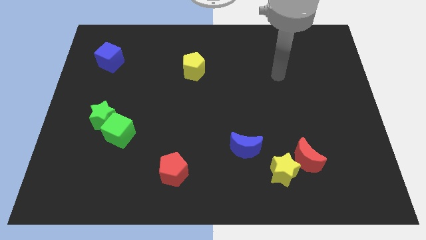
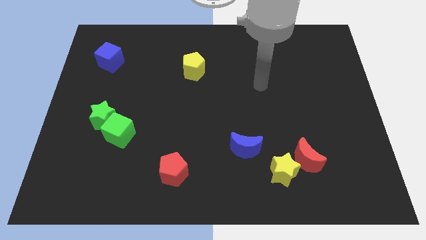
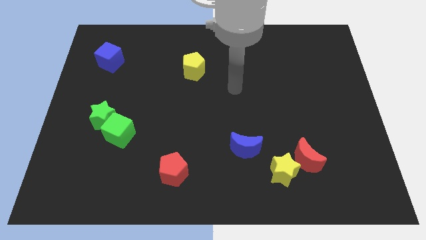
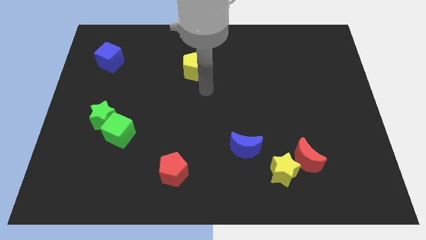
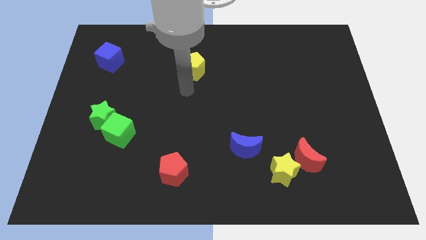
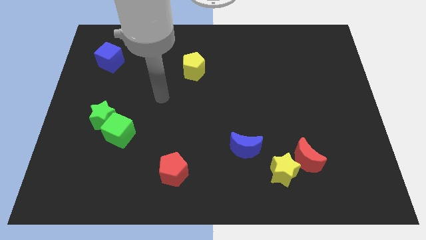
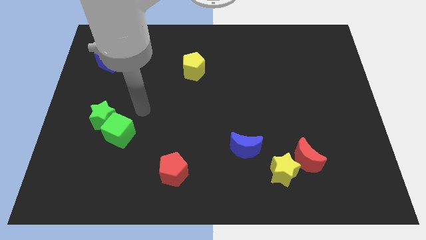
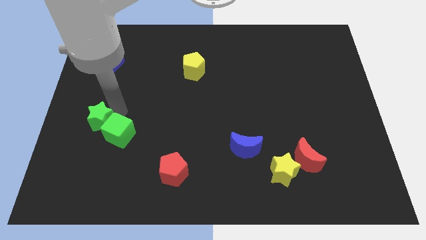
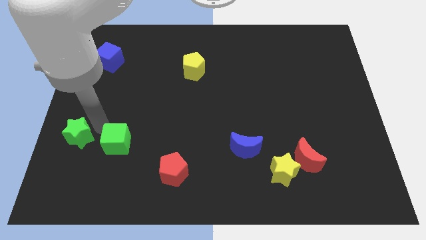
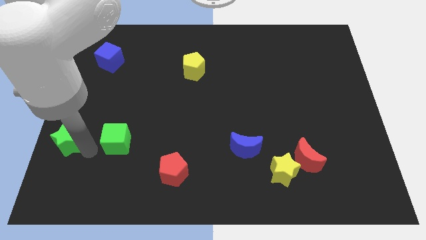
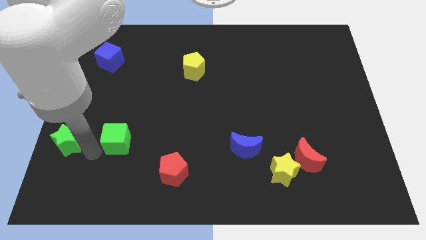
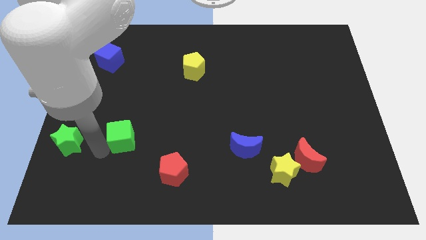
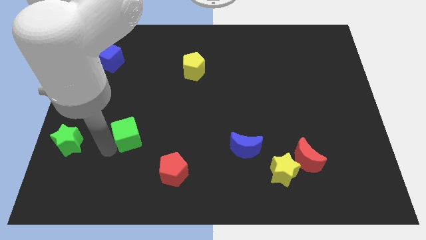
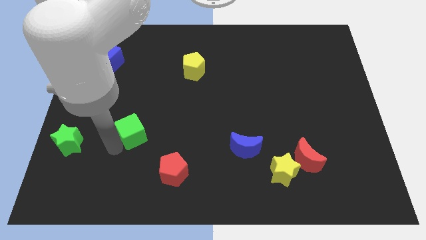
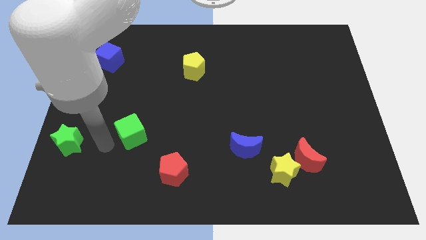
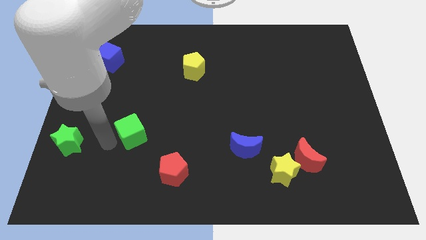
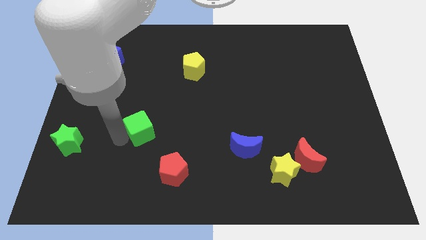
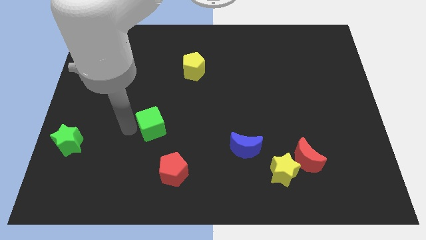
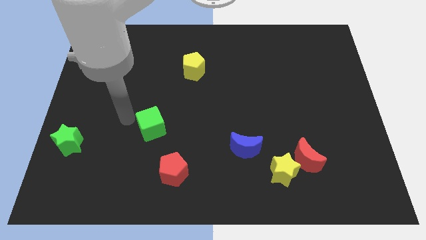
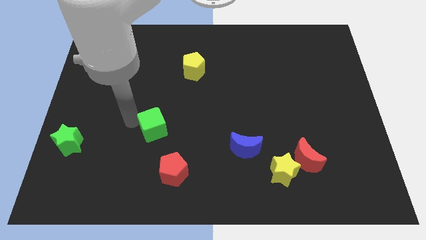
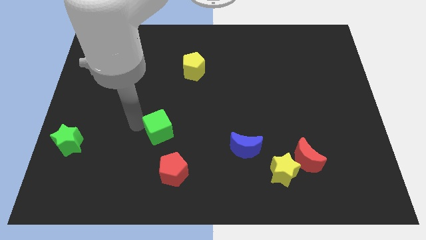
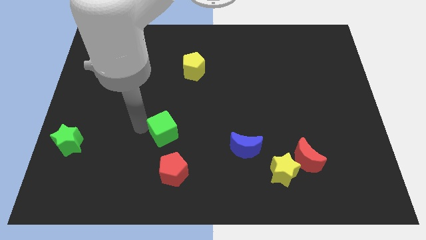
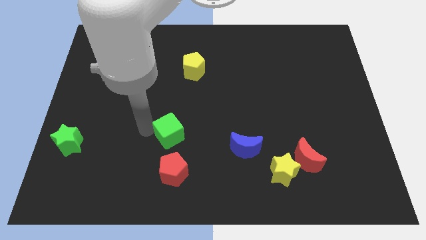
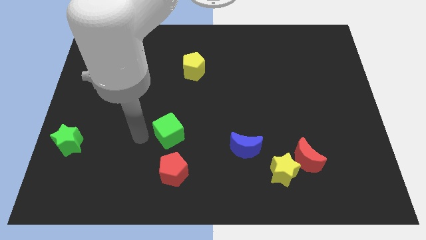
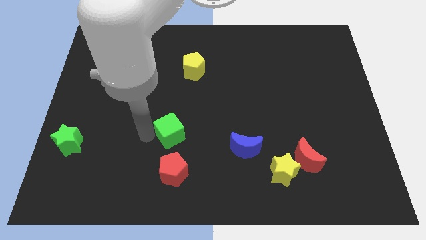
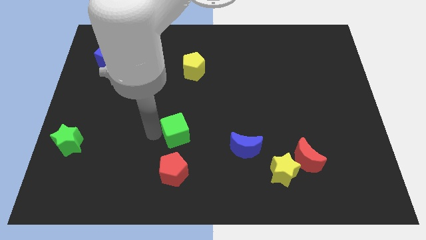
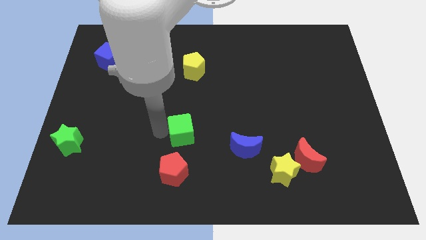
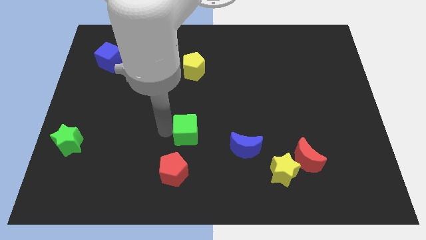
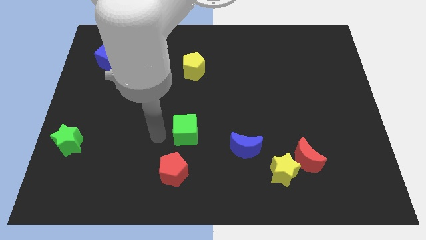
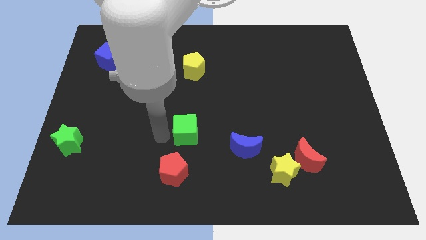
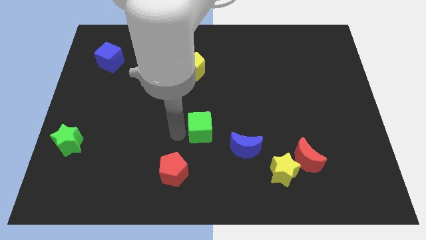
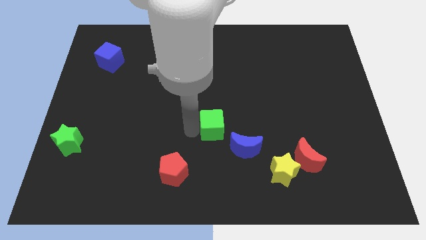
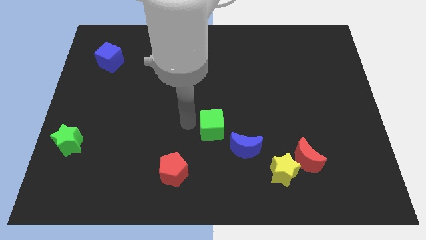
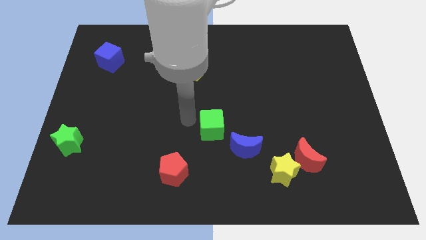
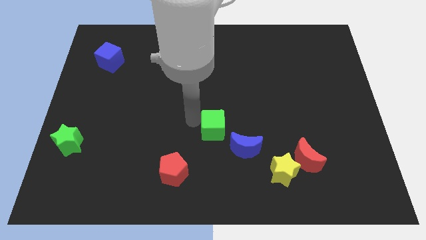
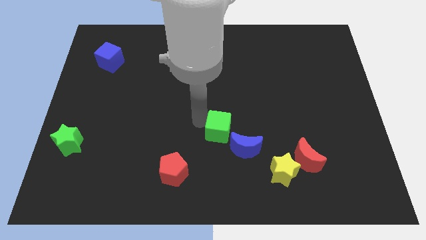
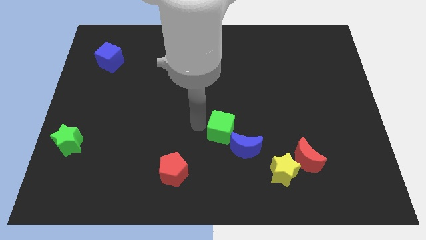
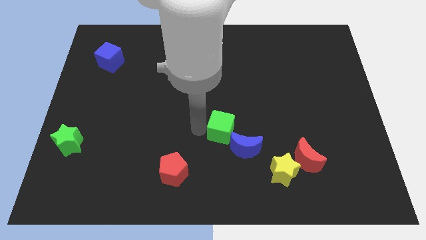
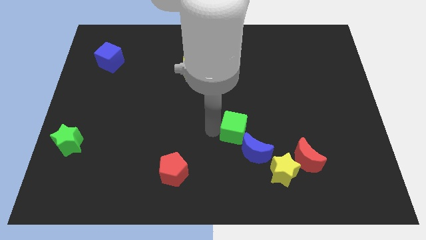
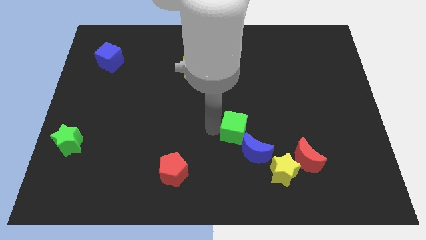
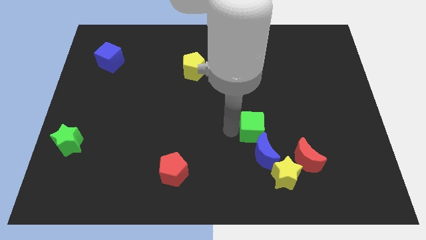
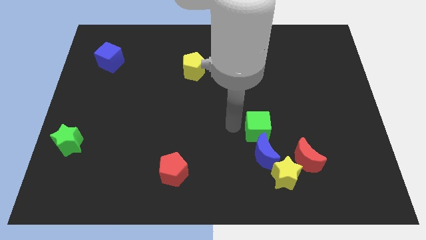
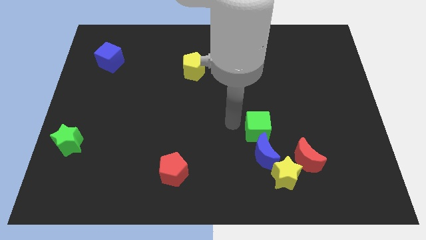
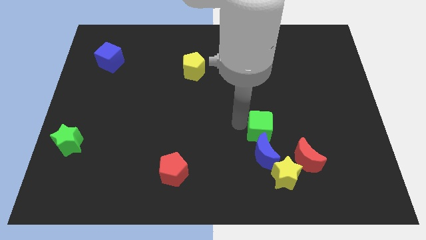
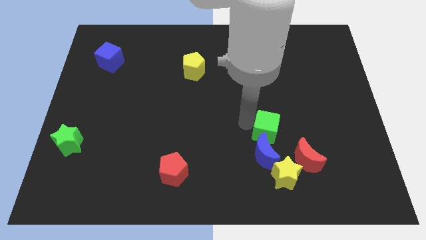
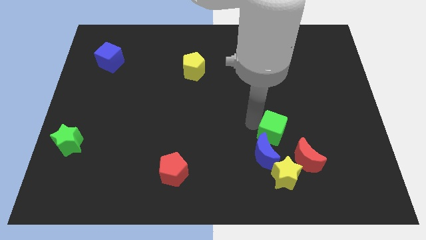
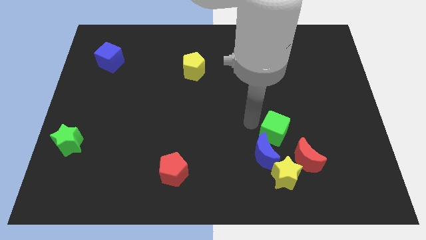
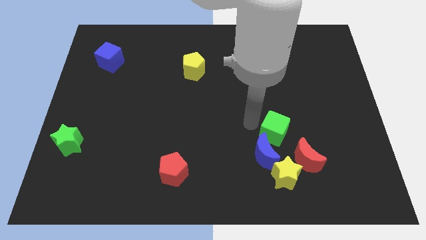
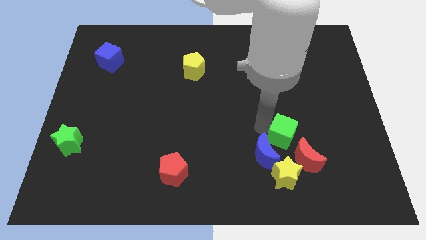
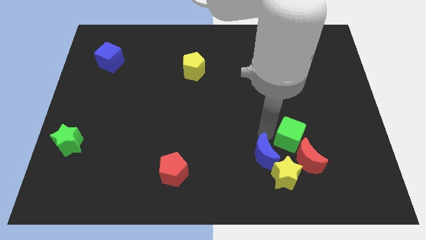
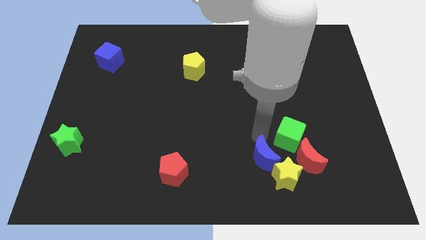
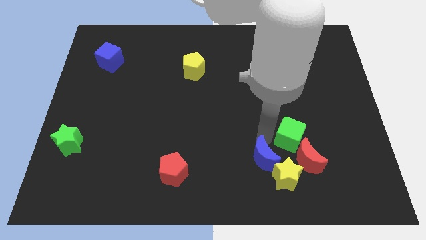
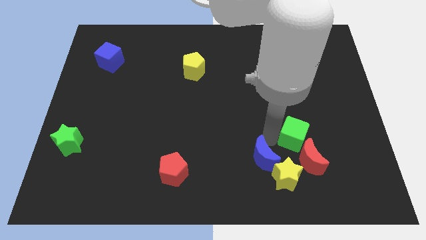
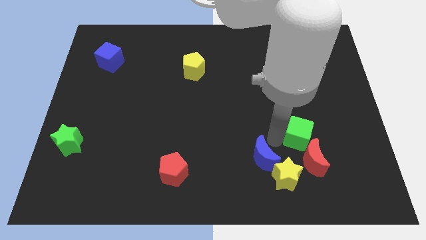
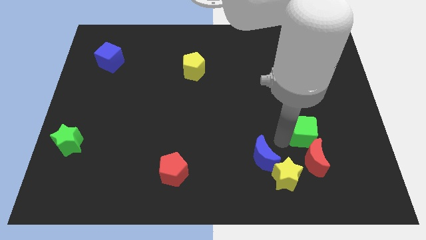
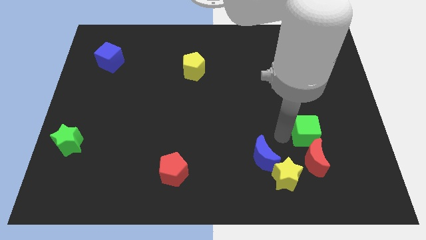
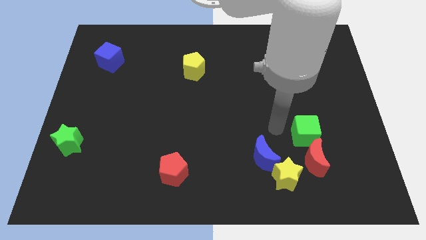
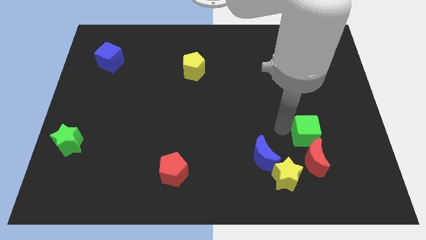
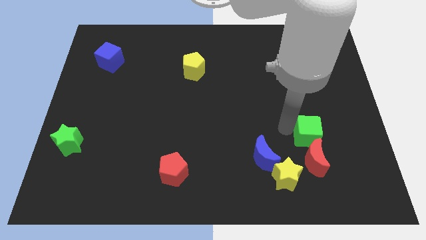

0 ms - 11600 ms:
put the green cube diagonally up and to the right of the red moon

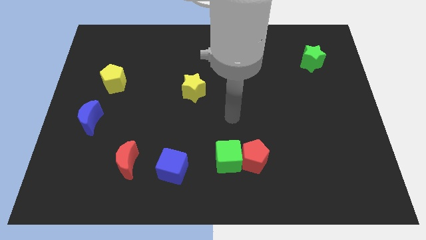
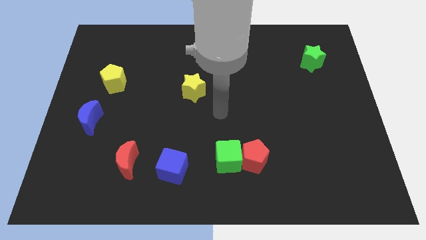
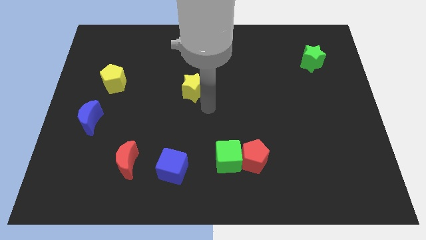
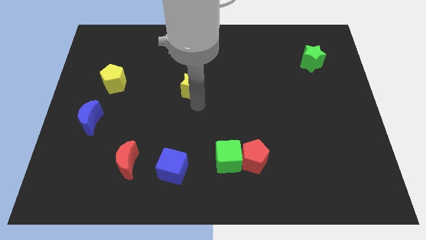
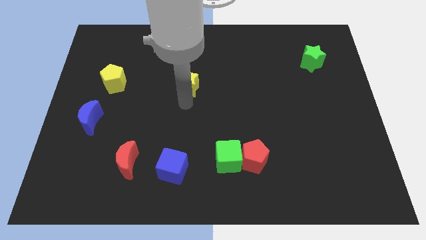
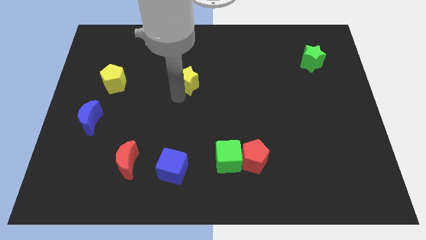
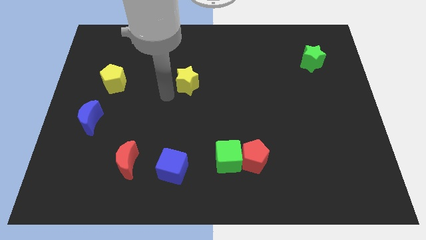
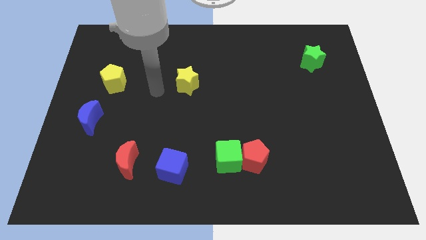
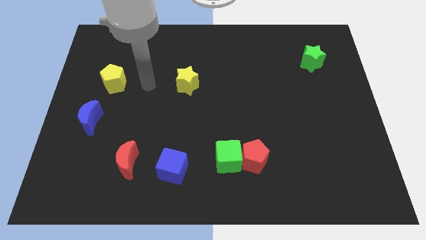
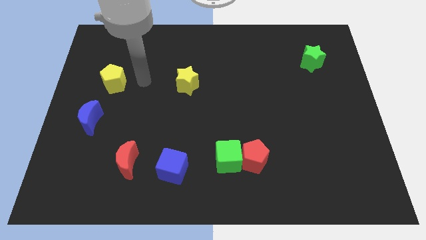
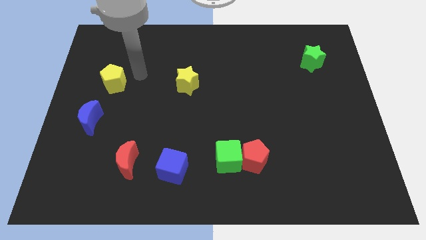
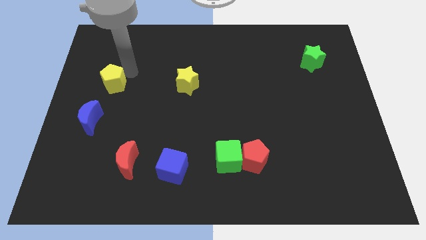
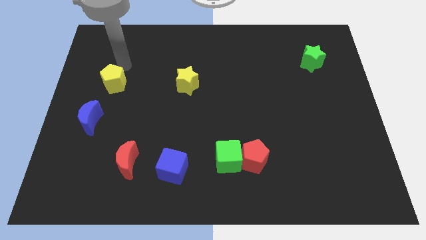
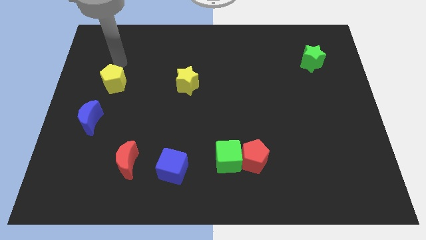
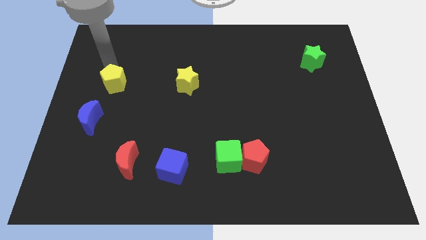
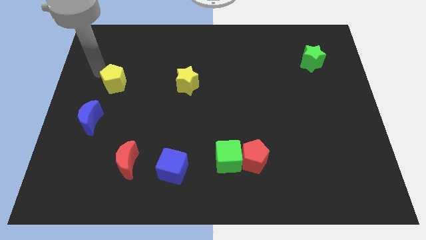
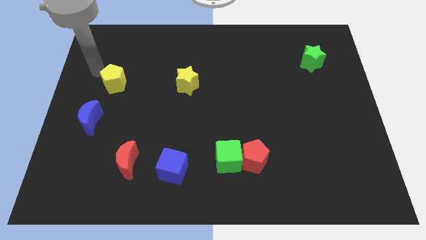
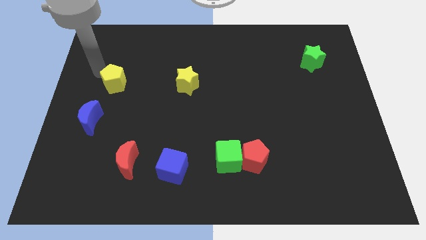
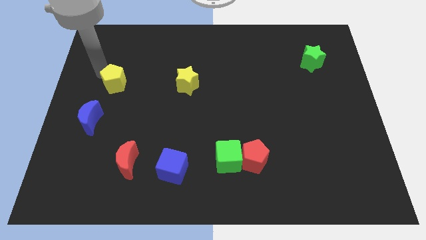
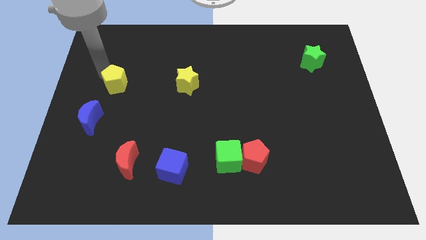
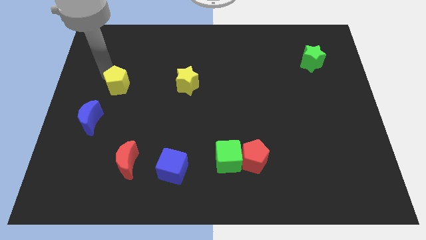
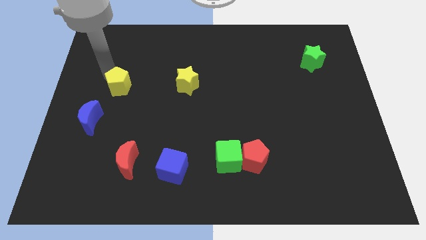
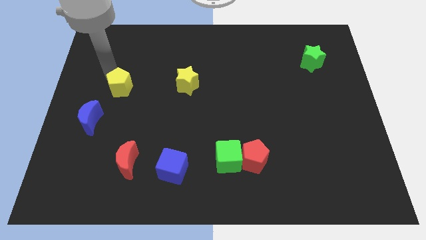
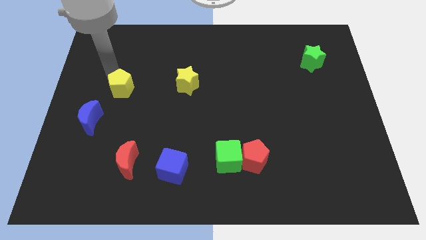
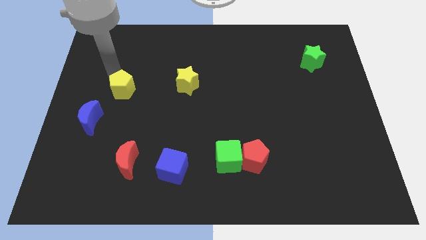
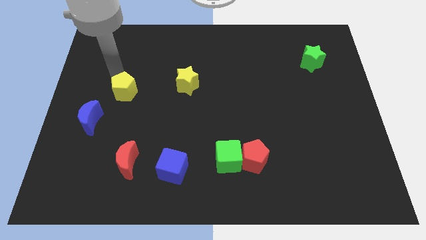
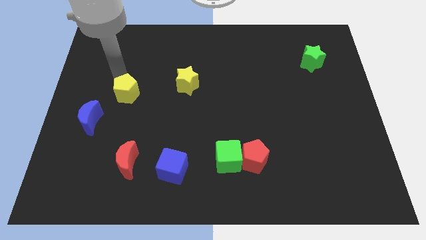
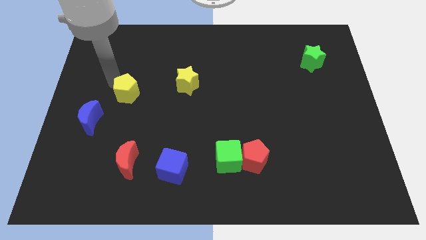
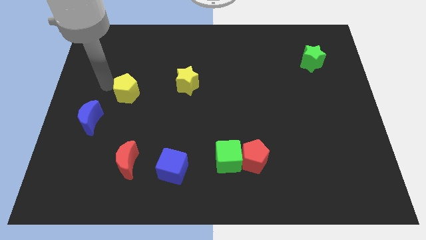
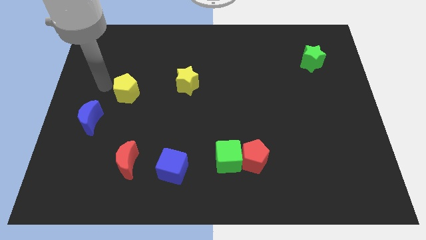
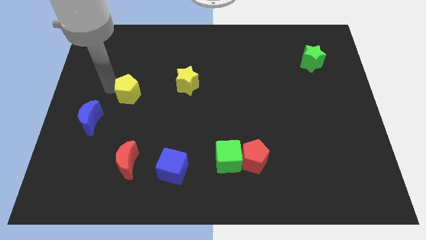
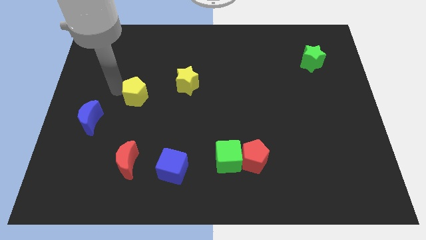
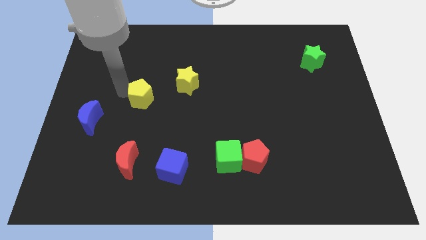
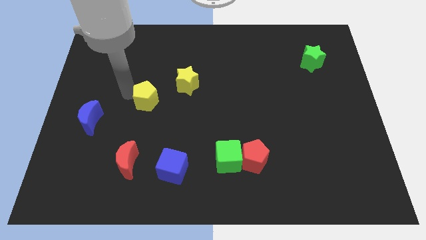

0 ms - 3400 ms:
move the yellow pentagon to the bottom left of the yellow star
